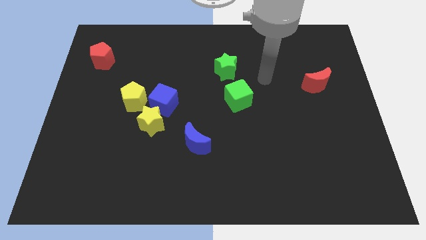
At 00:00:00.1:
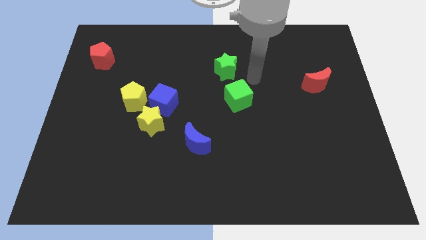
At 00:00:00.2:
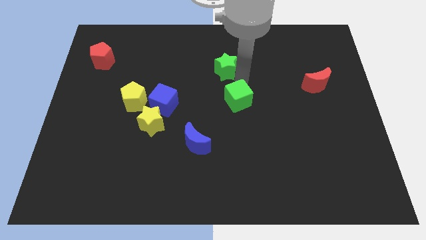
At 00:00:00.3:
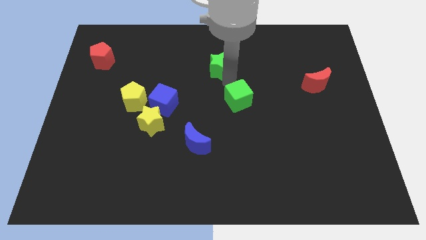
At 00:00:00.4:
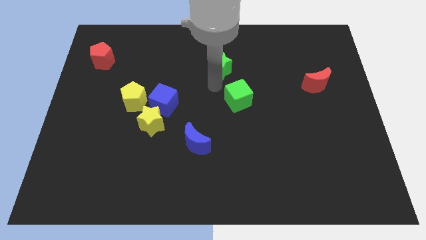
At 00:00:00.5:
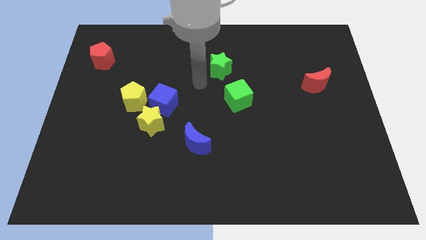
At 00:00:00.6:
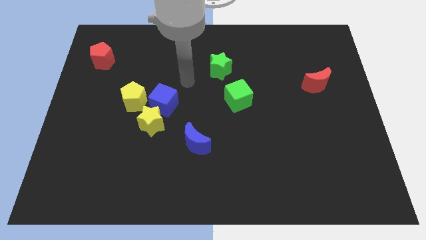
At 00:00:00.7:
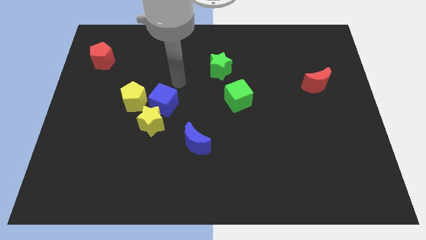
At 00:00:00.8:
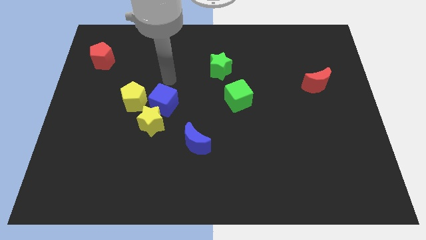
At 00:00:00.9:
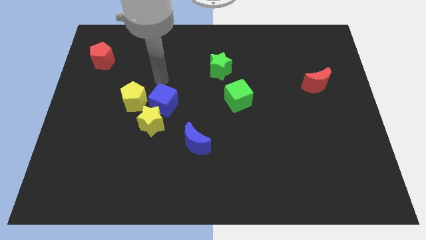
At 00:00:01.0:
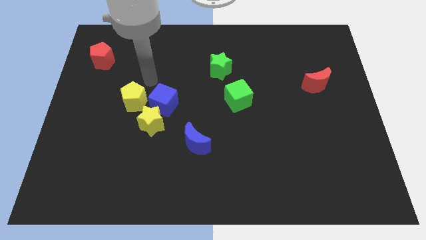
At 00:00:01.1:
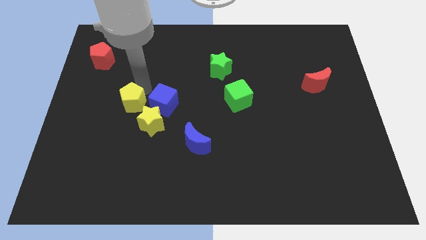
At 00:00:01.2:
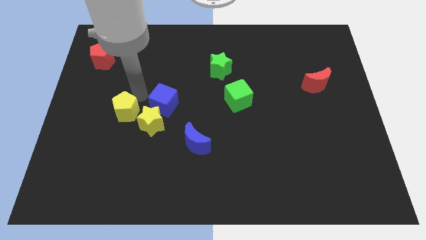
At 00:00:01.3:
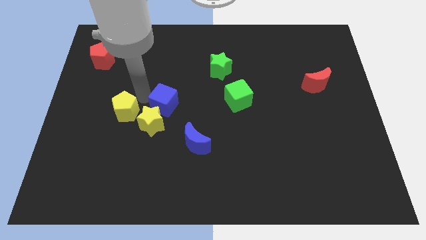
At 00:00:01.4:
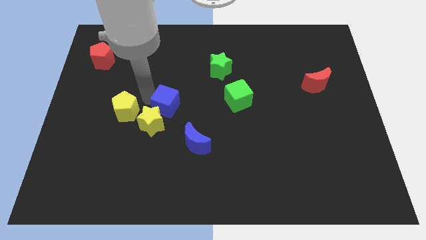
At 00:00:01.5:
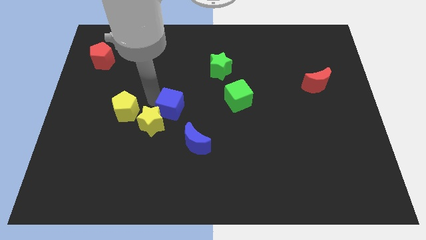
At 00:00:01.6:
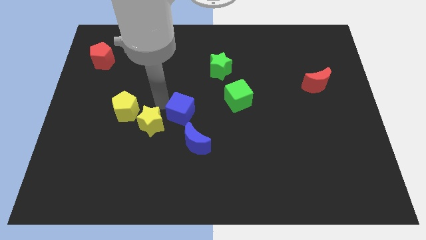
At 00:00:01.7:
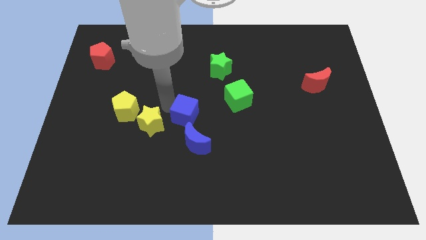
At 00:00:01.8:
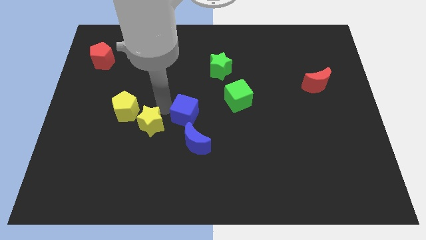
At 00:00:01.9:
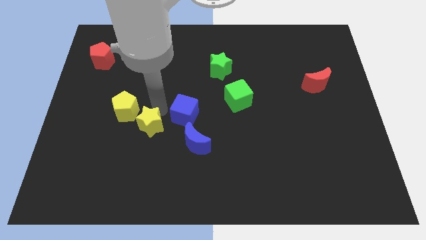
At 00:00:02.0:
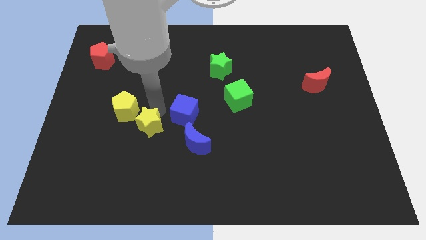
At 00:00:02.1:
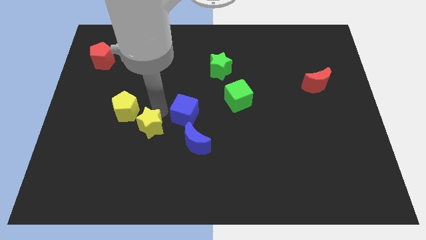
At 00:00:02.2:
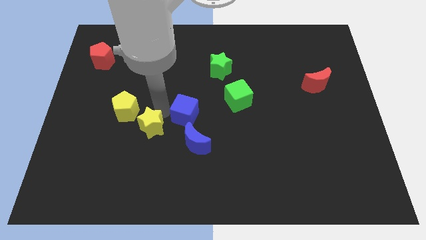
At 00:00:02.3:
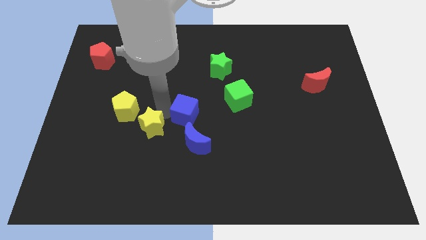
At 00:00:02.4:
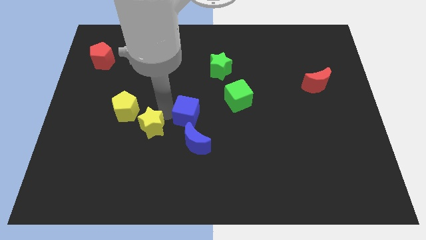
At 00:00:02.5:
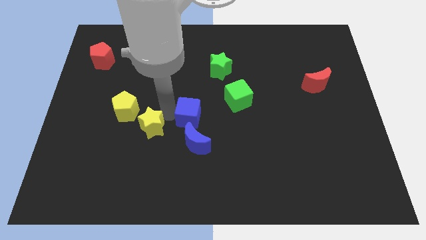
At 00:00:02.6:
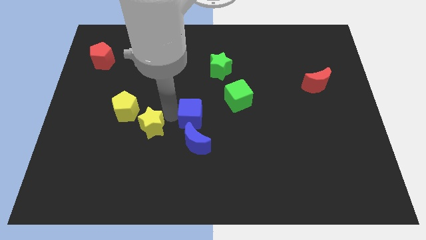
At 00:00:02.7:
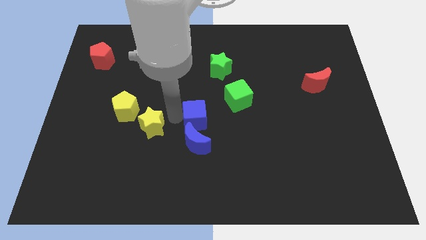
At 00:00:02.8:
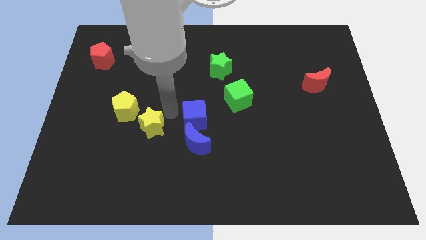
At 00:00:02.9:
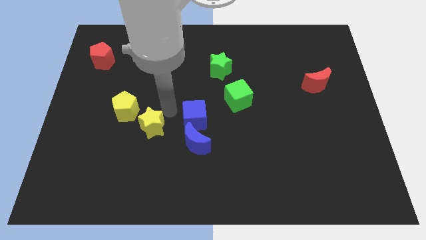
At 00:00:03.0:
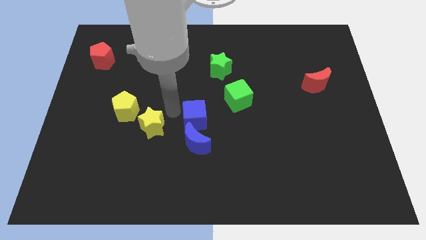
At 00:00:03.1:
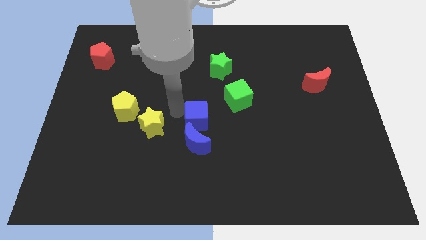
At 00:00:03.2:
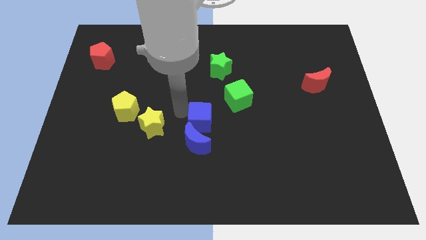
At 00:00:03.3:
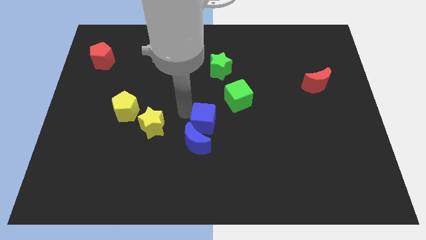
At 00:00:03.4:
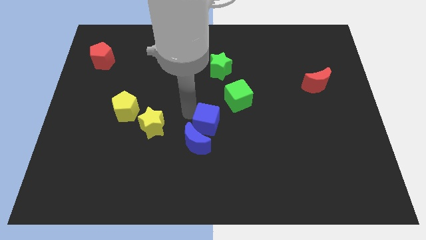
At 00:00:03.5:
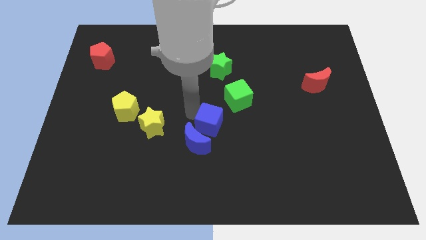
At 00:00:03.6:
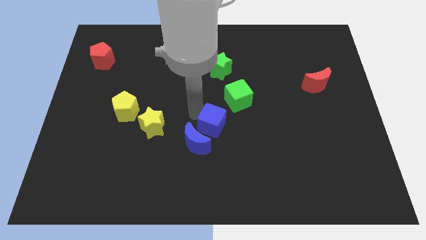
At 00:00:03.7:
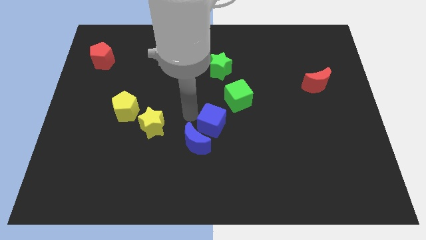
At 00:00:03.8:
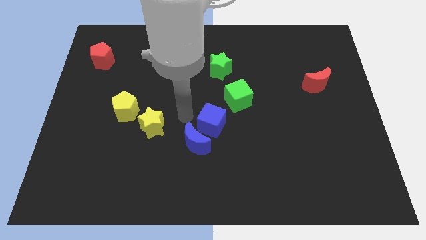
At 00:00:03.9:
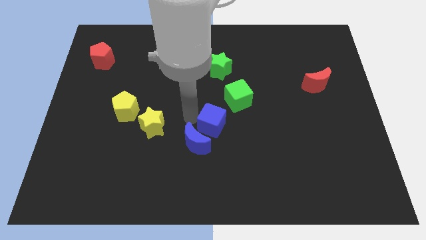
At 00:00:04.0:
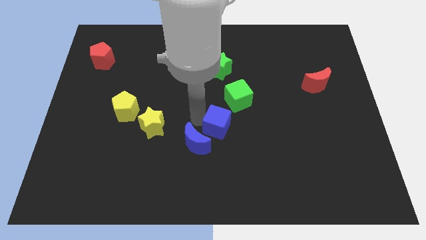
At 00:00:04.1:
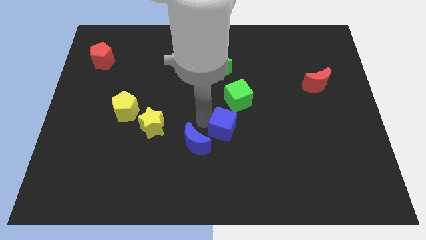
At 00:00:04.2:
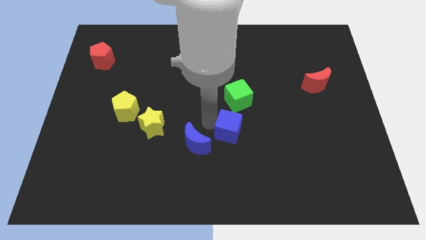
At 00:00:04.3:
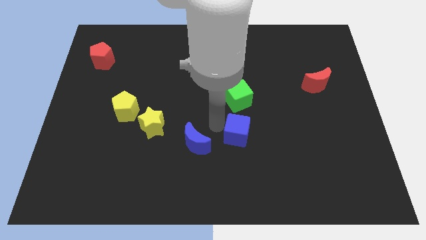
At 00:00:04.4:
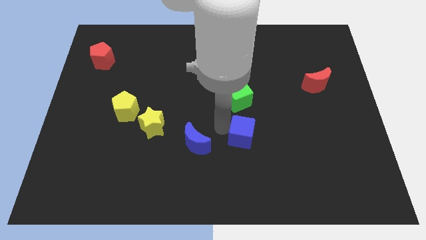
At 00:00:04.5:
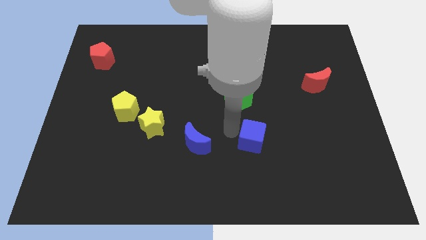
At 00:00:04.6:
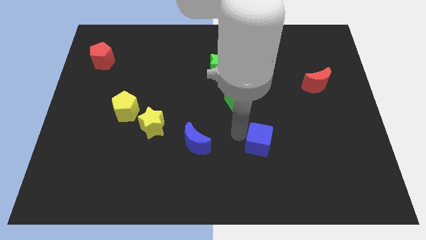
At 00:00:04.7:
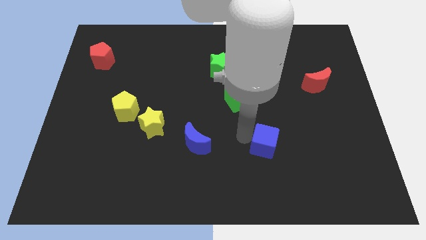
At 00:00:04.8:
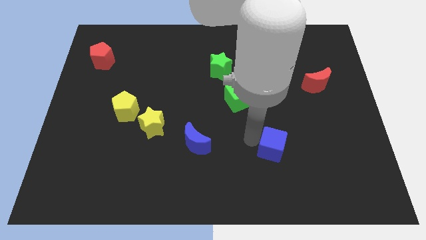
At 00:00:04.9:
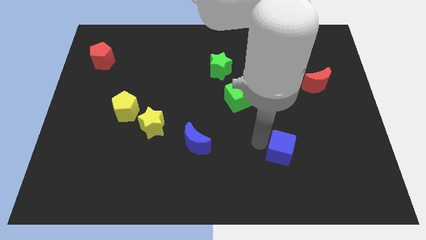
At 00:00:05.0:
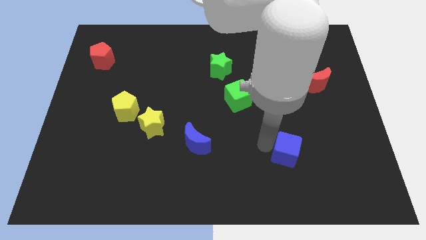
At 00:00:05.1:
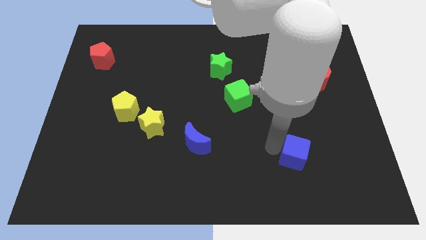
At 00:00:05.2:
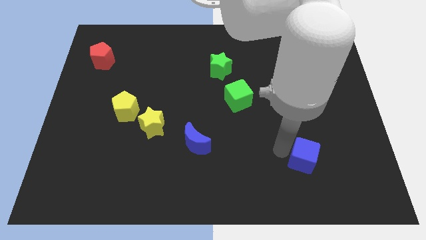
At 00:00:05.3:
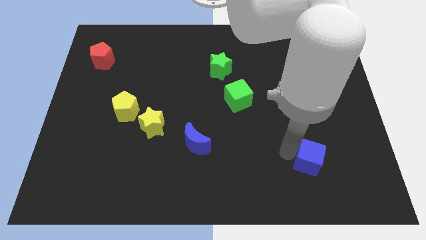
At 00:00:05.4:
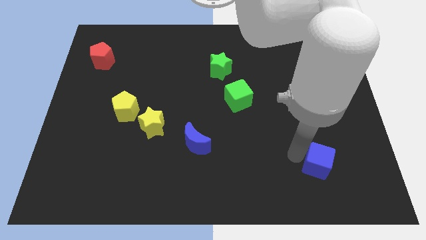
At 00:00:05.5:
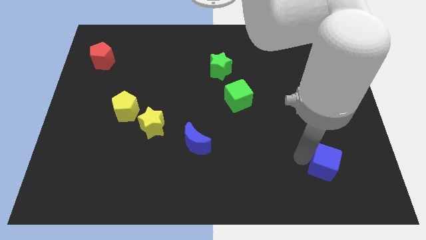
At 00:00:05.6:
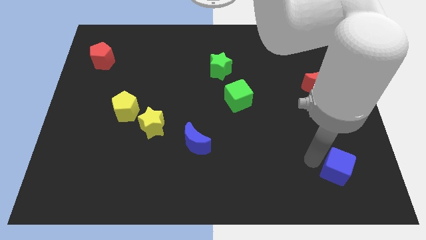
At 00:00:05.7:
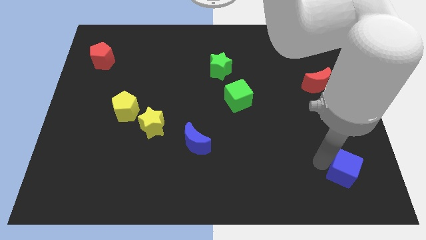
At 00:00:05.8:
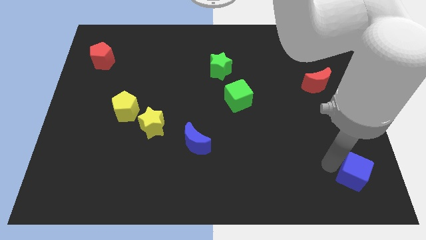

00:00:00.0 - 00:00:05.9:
slide the blue cube to the bottom right

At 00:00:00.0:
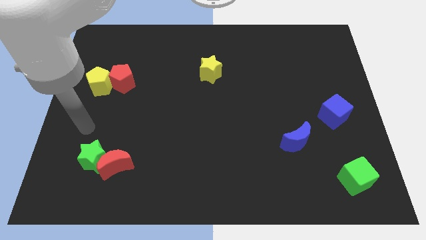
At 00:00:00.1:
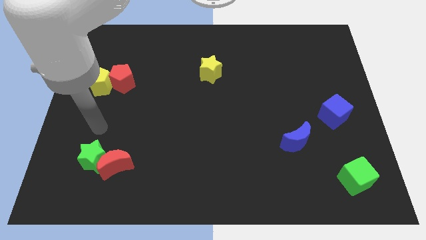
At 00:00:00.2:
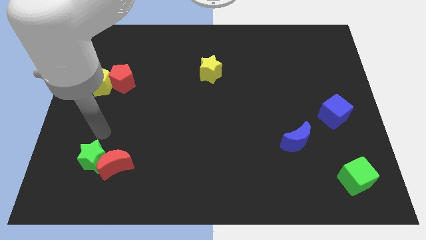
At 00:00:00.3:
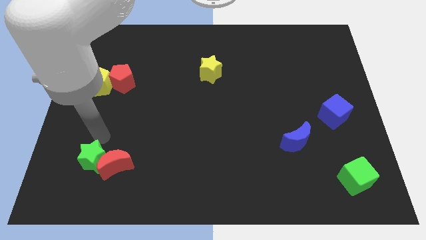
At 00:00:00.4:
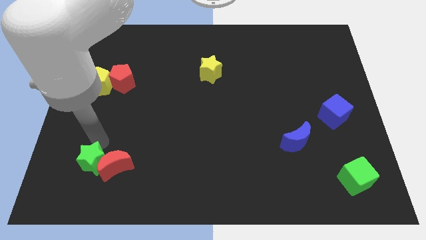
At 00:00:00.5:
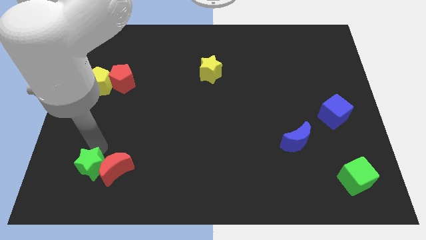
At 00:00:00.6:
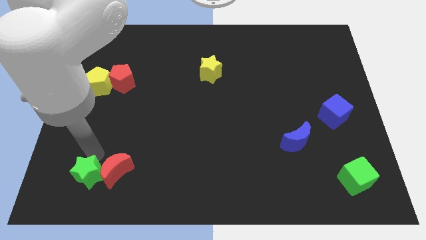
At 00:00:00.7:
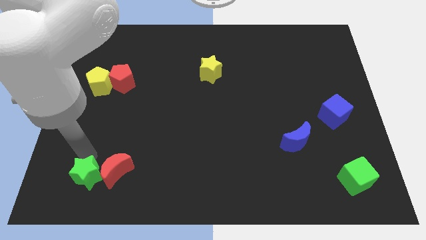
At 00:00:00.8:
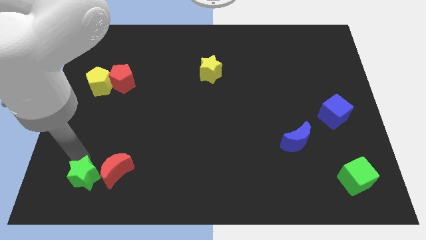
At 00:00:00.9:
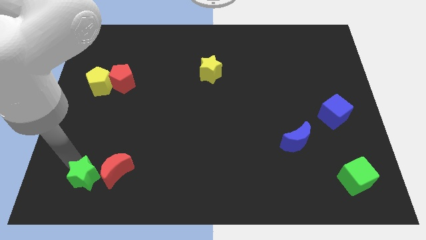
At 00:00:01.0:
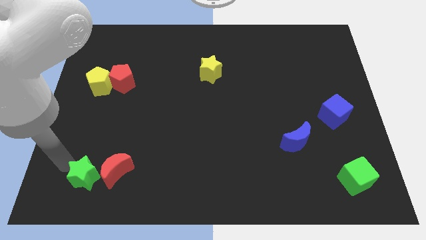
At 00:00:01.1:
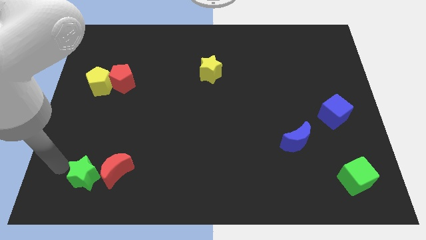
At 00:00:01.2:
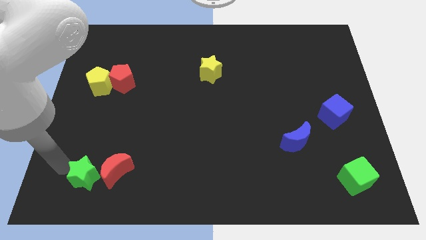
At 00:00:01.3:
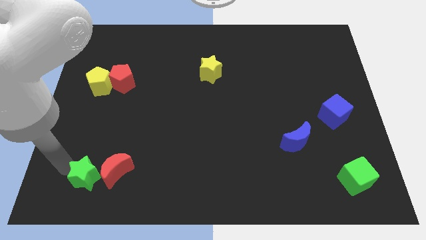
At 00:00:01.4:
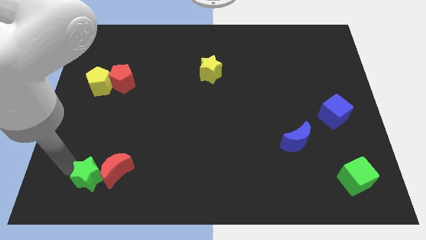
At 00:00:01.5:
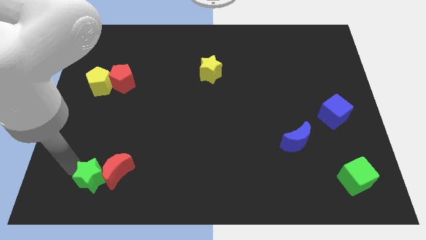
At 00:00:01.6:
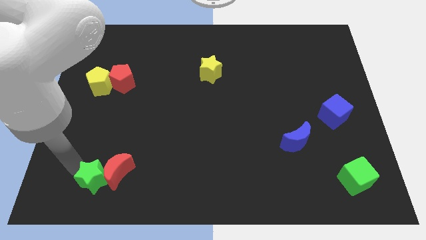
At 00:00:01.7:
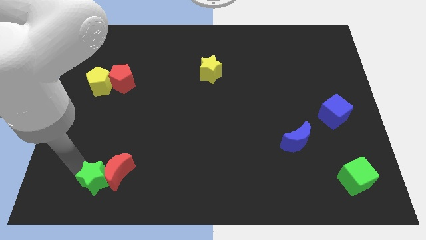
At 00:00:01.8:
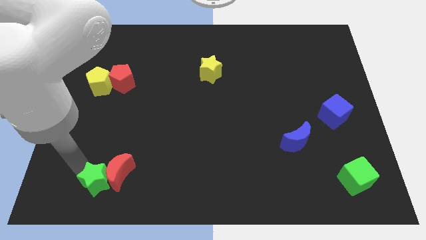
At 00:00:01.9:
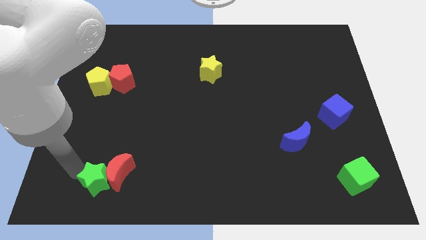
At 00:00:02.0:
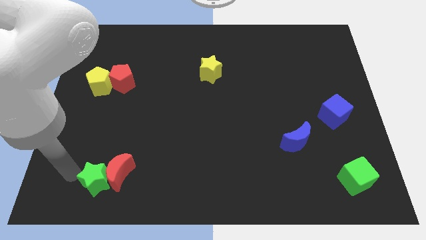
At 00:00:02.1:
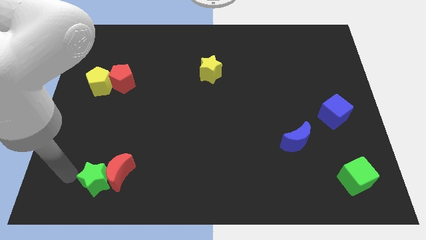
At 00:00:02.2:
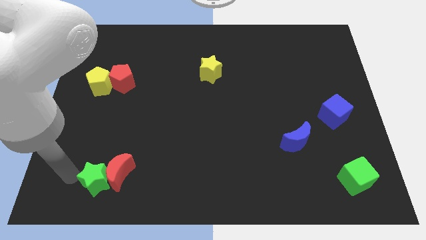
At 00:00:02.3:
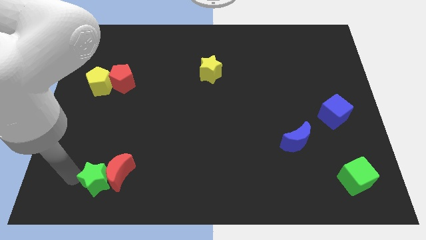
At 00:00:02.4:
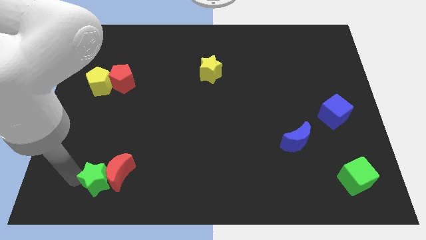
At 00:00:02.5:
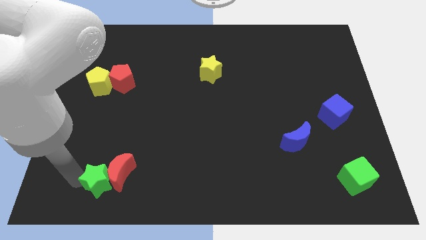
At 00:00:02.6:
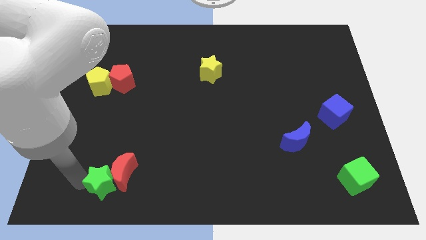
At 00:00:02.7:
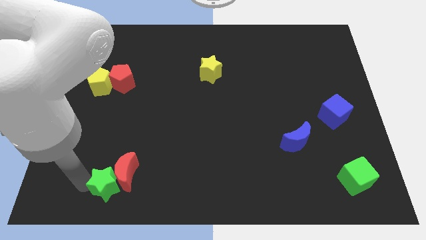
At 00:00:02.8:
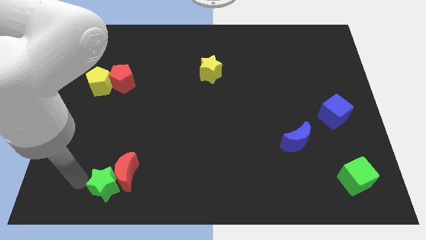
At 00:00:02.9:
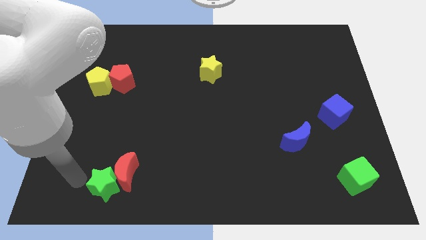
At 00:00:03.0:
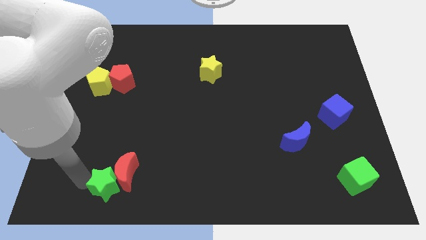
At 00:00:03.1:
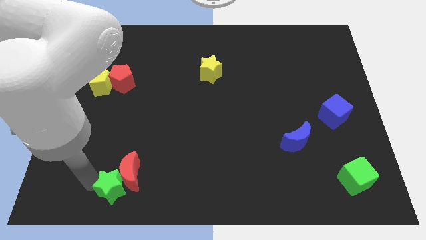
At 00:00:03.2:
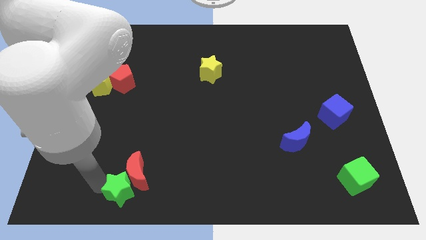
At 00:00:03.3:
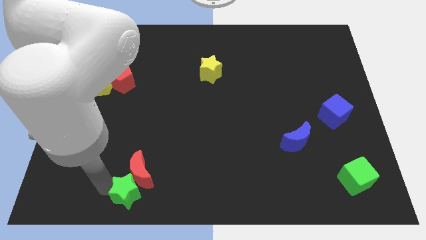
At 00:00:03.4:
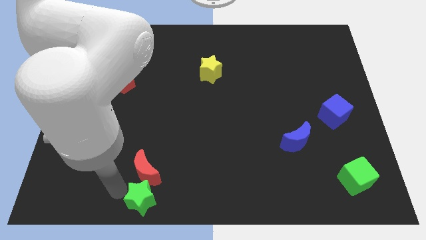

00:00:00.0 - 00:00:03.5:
put the green star to the bottom
